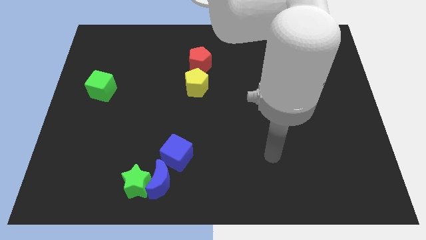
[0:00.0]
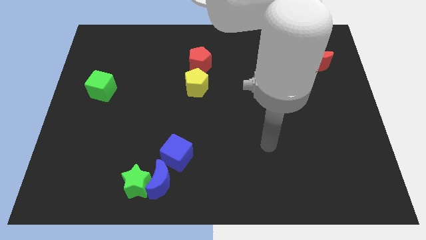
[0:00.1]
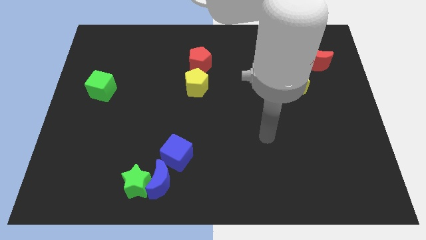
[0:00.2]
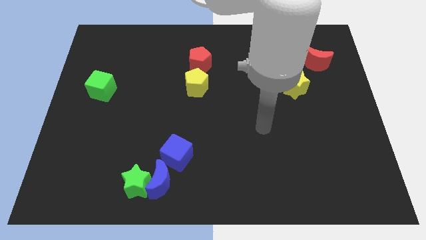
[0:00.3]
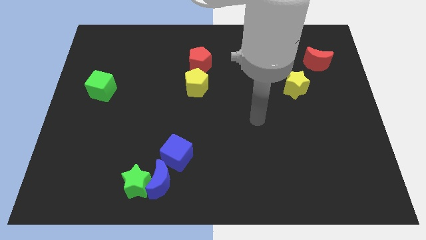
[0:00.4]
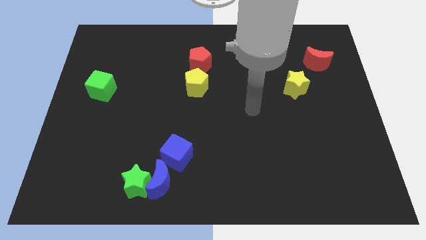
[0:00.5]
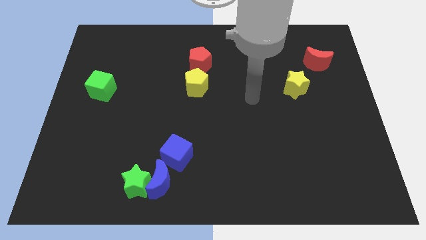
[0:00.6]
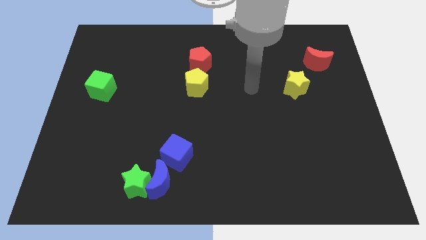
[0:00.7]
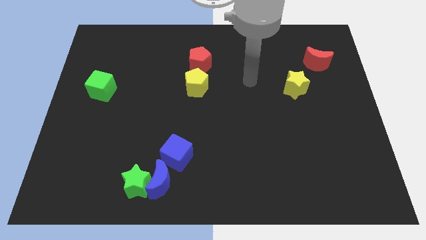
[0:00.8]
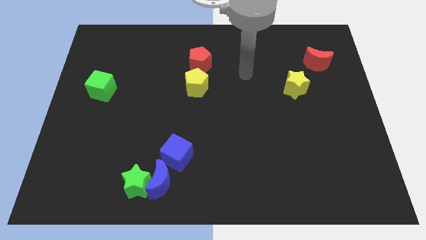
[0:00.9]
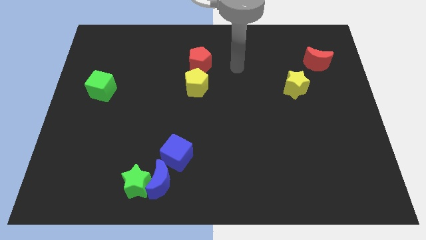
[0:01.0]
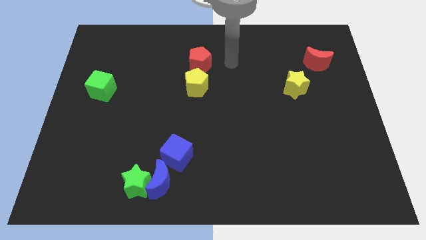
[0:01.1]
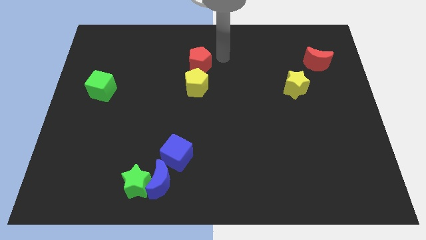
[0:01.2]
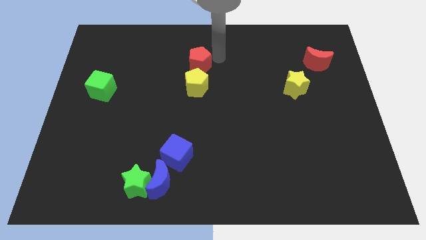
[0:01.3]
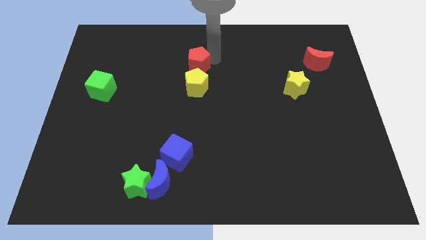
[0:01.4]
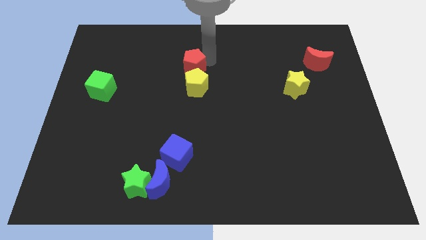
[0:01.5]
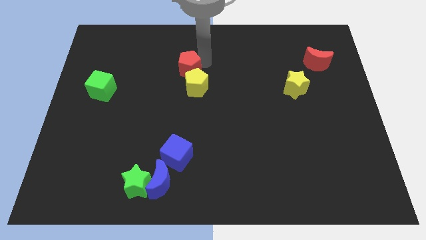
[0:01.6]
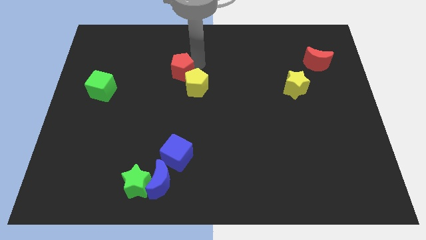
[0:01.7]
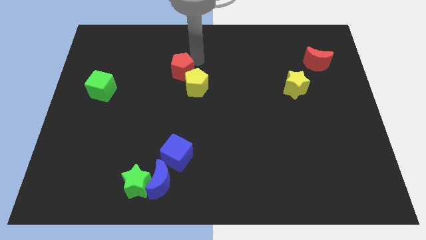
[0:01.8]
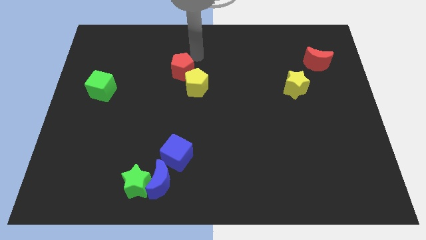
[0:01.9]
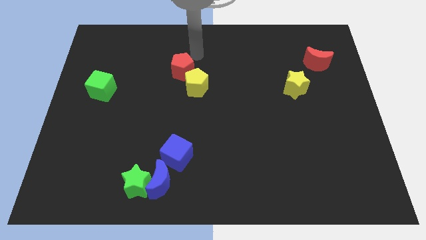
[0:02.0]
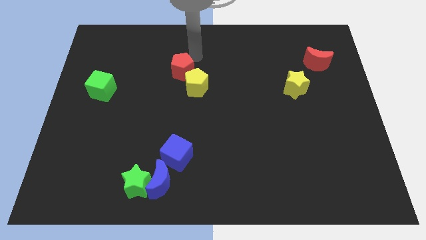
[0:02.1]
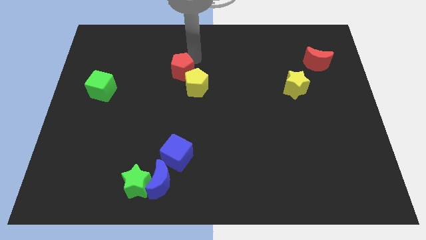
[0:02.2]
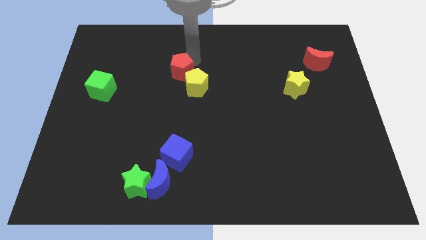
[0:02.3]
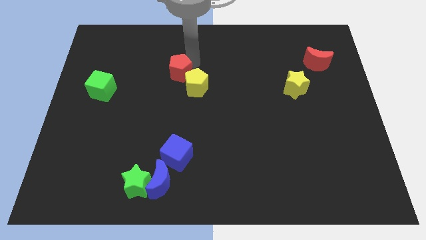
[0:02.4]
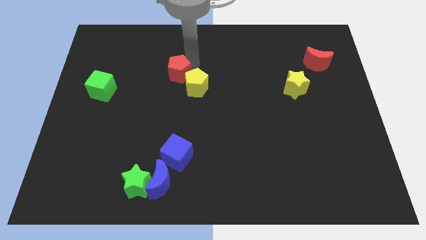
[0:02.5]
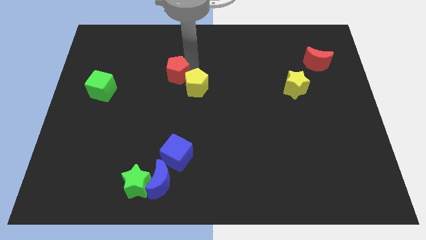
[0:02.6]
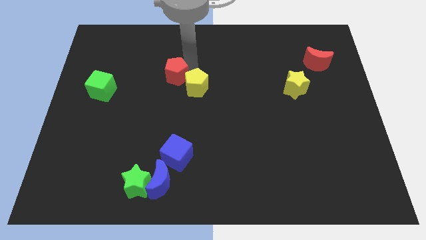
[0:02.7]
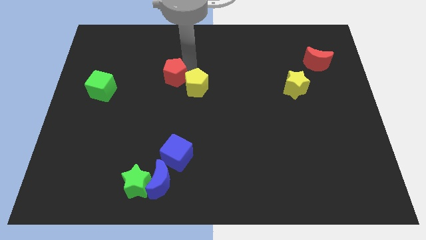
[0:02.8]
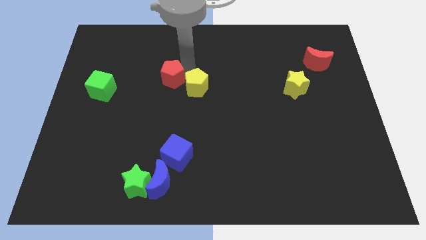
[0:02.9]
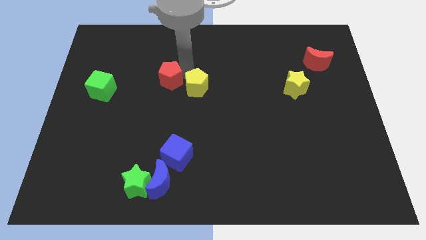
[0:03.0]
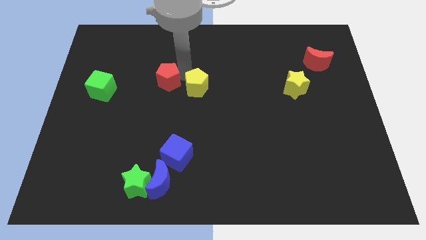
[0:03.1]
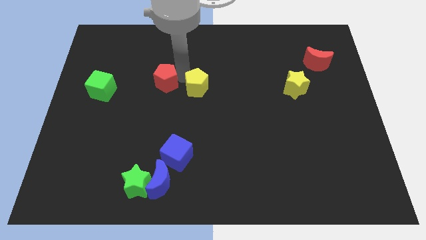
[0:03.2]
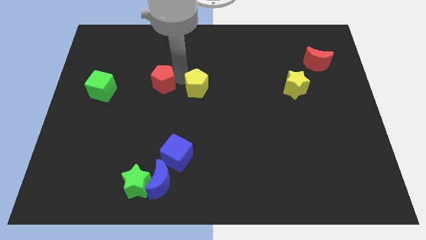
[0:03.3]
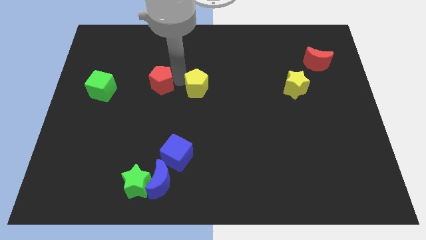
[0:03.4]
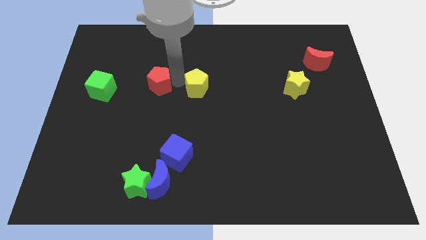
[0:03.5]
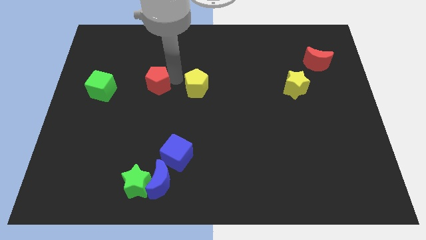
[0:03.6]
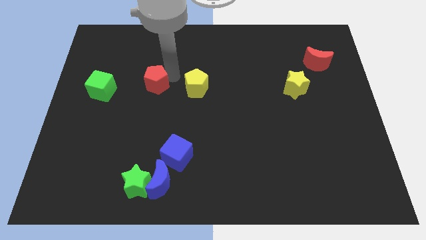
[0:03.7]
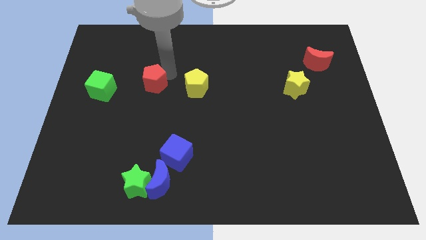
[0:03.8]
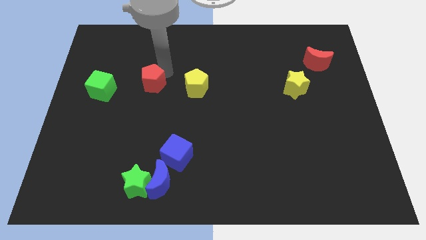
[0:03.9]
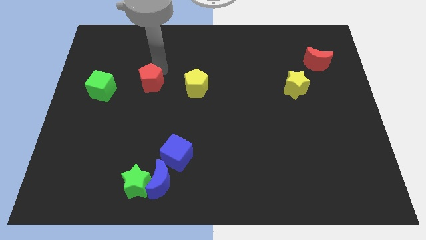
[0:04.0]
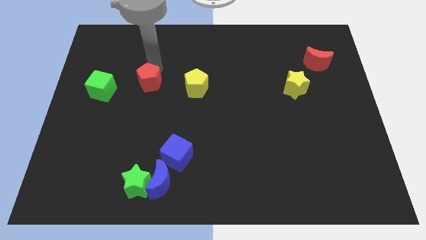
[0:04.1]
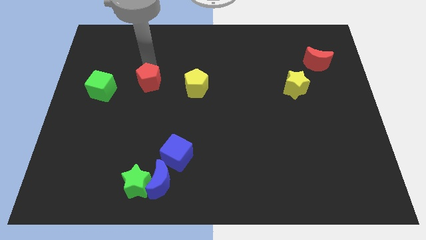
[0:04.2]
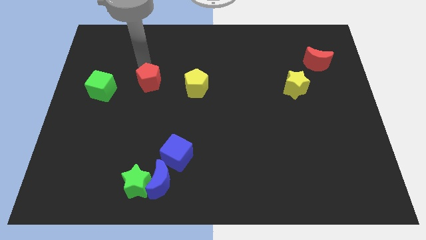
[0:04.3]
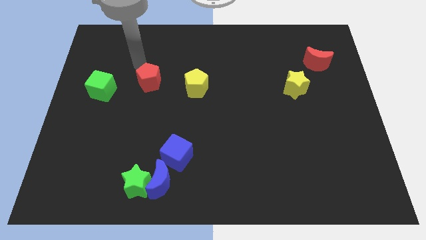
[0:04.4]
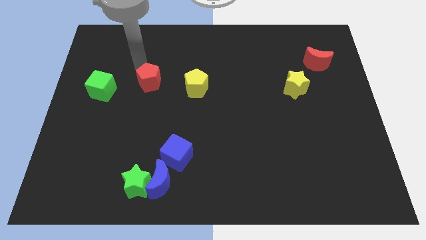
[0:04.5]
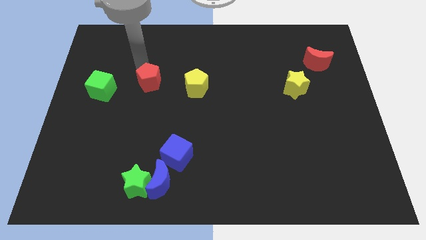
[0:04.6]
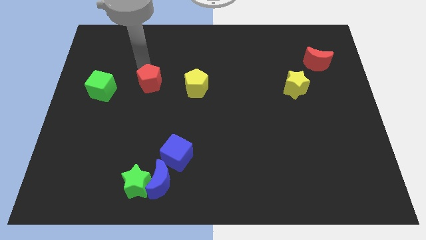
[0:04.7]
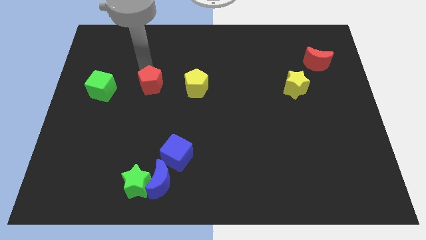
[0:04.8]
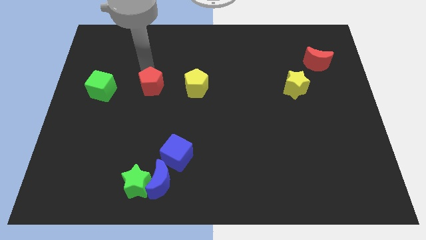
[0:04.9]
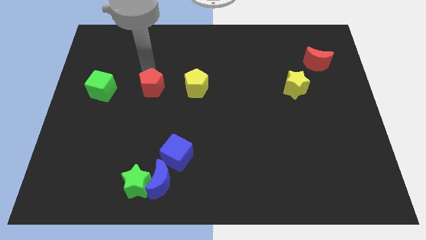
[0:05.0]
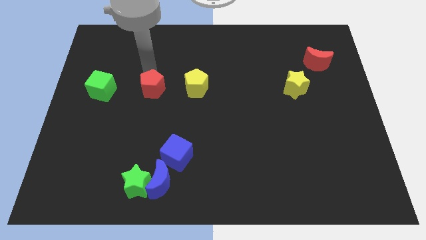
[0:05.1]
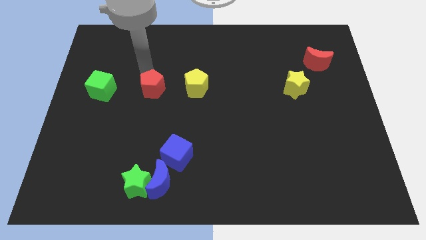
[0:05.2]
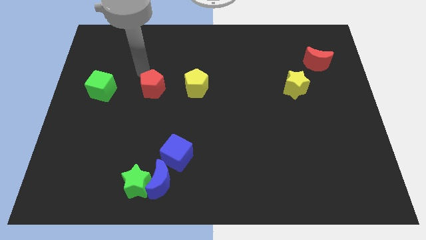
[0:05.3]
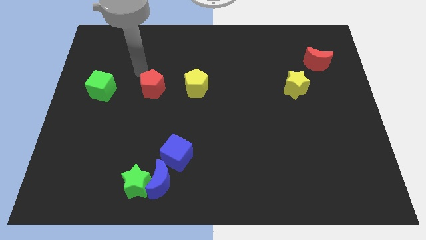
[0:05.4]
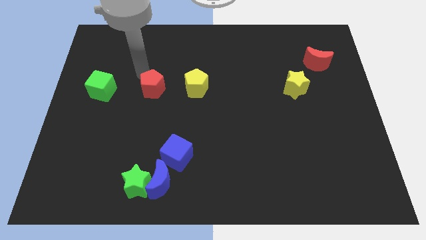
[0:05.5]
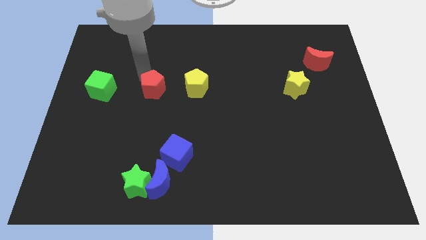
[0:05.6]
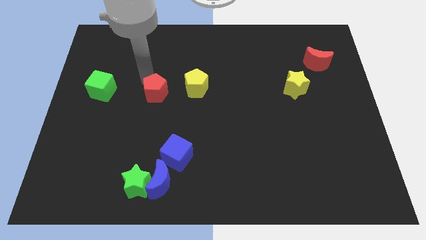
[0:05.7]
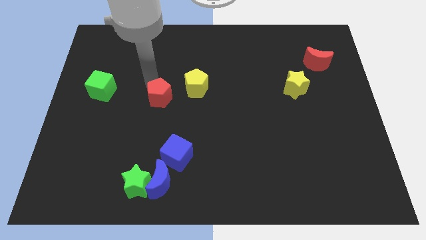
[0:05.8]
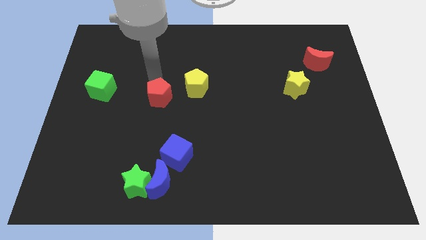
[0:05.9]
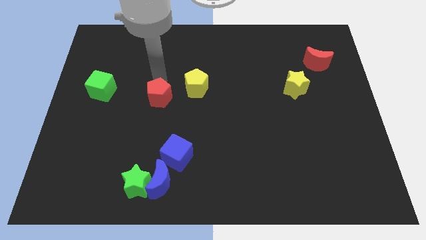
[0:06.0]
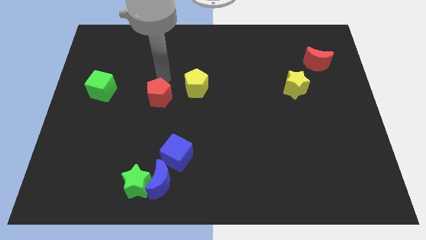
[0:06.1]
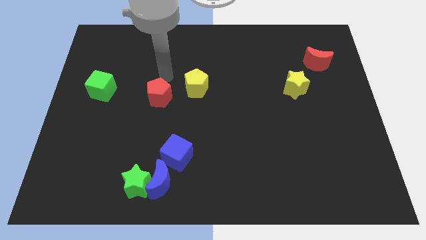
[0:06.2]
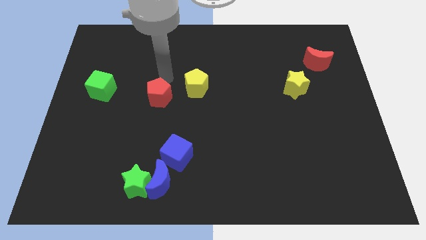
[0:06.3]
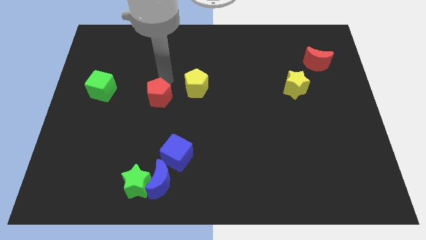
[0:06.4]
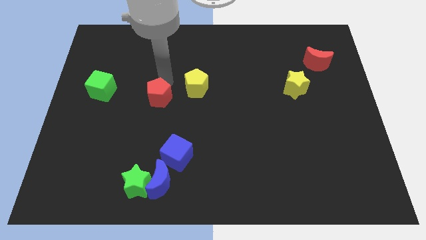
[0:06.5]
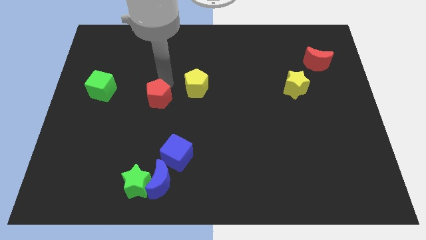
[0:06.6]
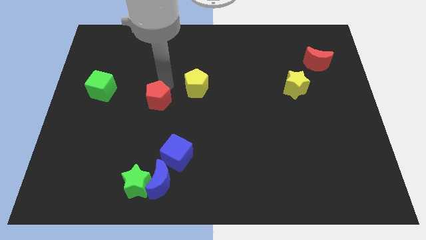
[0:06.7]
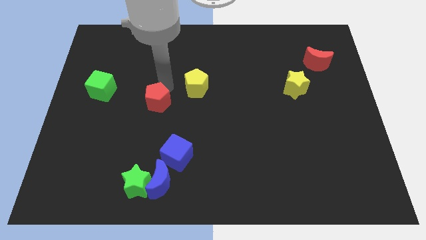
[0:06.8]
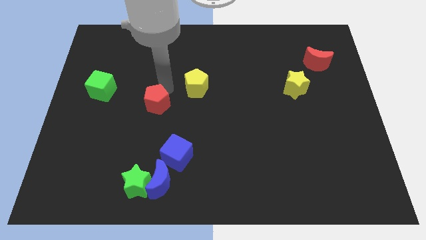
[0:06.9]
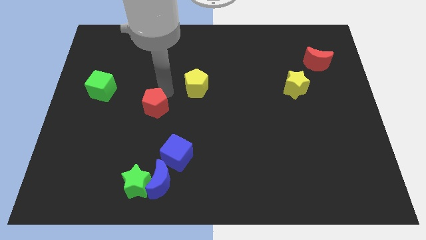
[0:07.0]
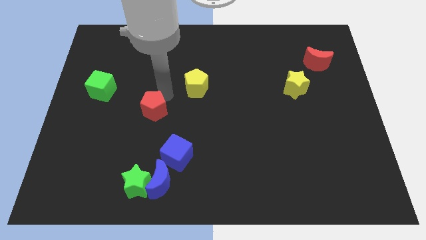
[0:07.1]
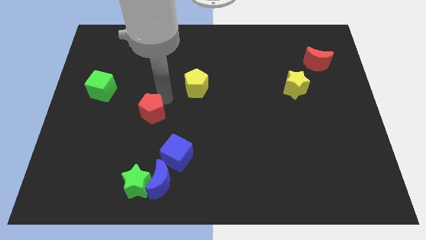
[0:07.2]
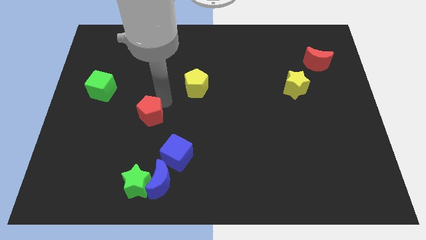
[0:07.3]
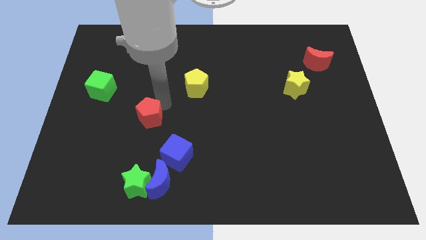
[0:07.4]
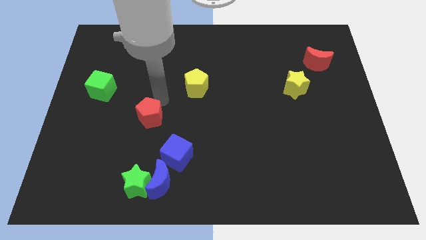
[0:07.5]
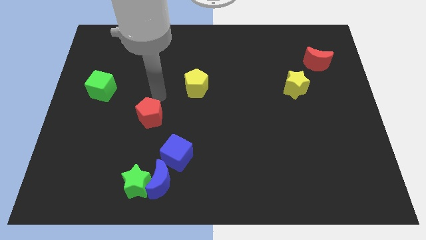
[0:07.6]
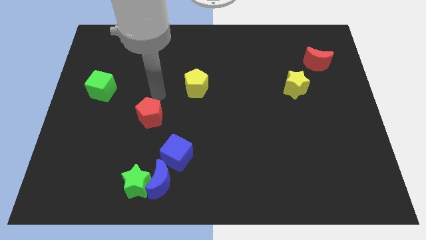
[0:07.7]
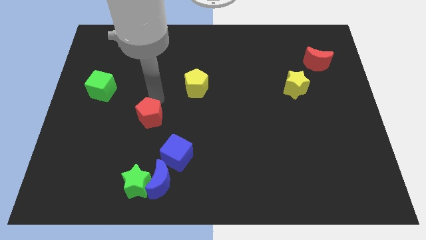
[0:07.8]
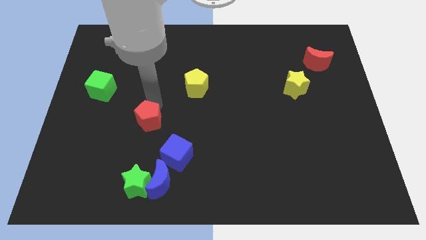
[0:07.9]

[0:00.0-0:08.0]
slide the red pentagon to the top side of the green star

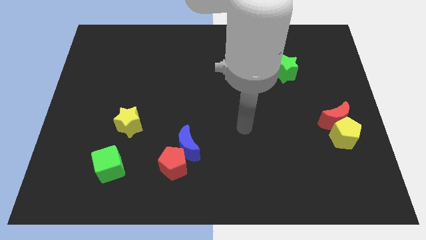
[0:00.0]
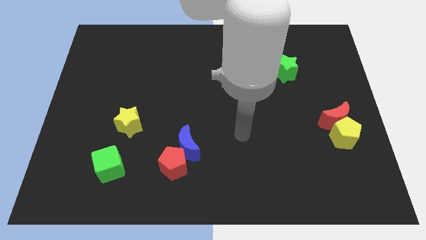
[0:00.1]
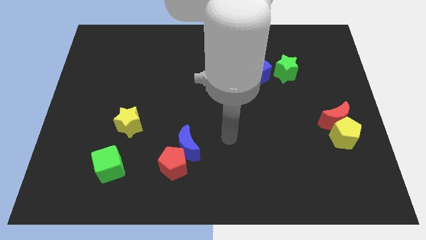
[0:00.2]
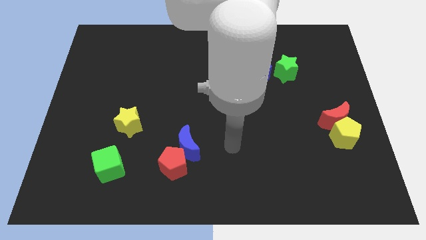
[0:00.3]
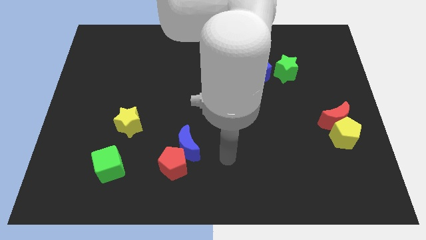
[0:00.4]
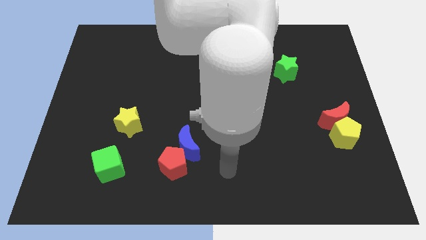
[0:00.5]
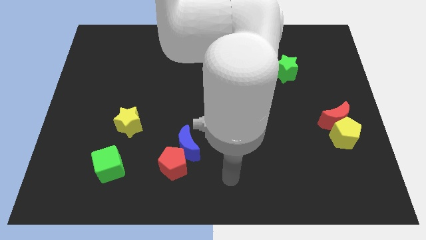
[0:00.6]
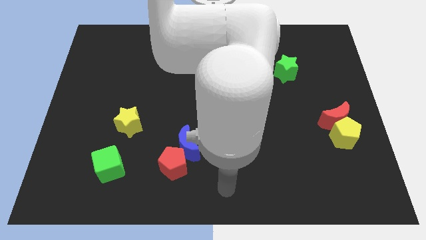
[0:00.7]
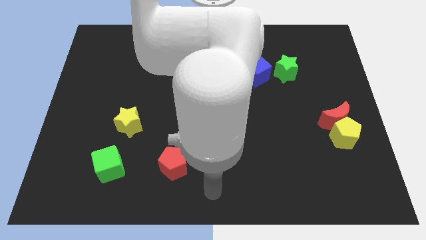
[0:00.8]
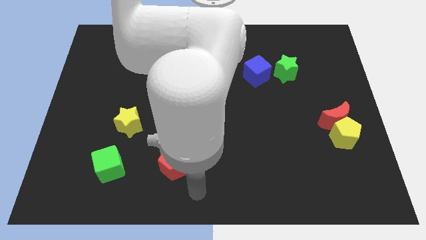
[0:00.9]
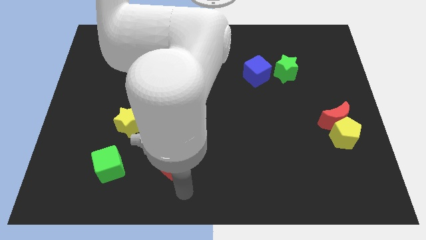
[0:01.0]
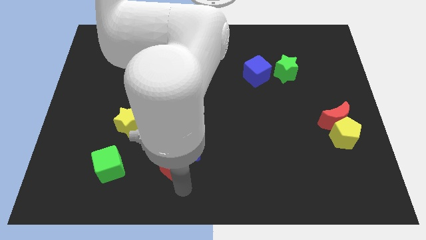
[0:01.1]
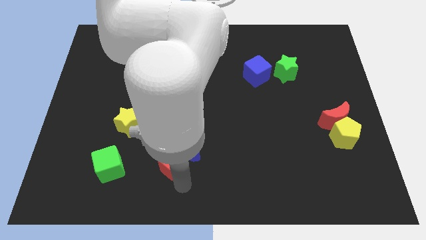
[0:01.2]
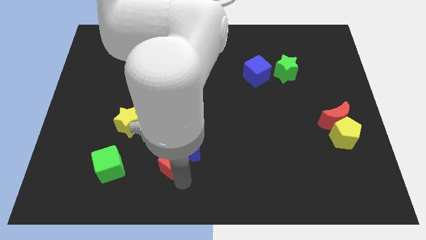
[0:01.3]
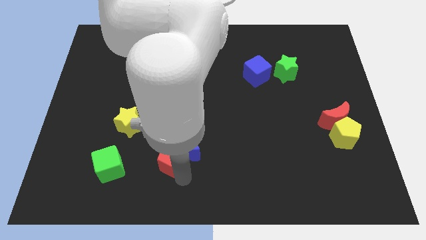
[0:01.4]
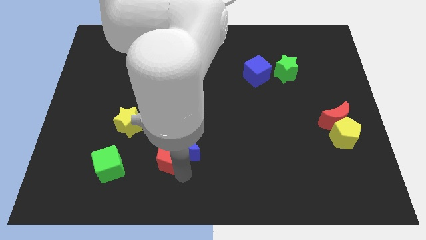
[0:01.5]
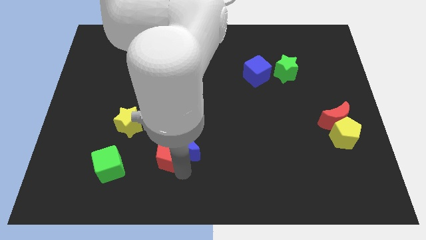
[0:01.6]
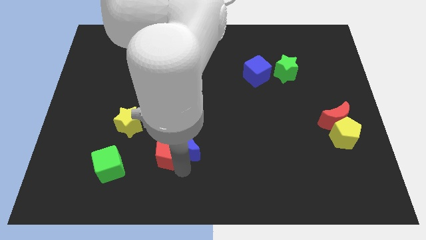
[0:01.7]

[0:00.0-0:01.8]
push the red pentagon to the top left side of the blue moon
